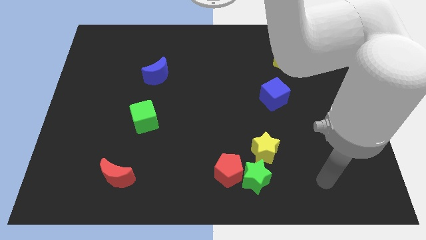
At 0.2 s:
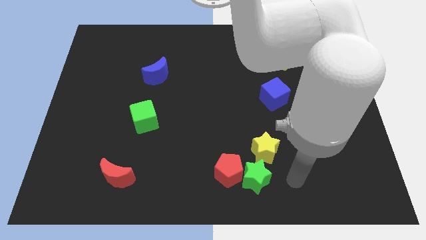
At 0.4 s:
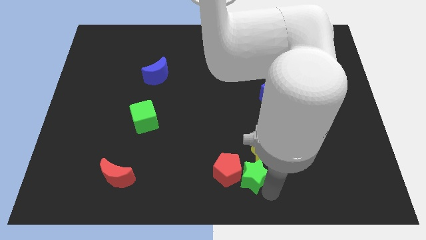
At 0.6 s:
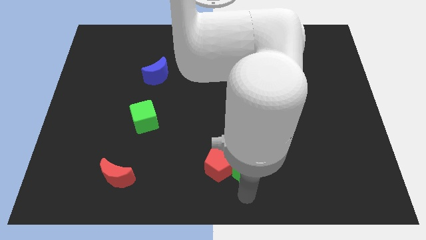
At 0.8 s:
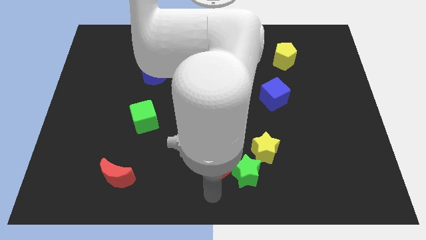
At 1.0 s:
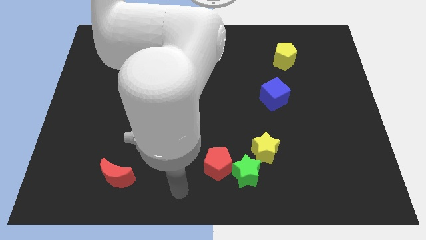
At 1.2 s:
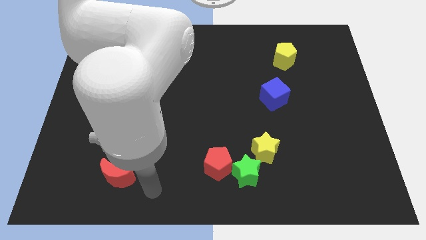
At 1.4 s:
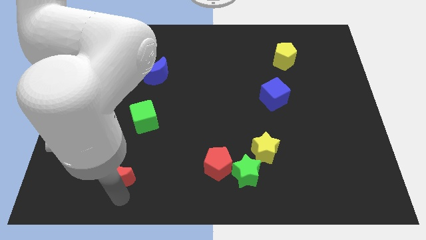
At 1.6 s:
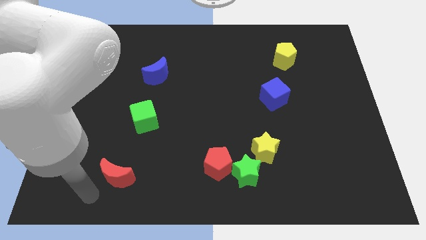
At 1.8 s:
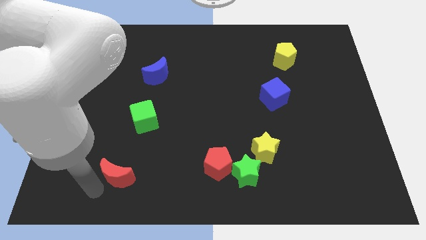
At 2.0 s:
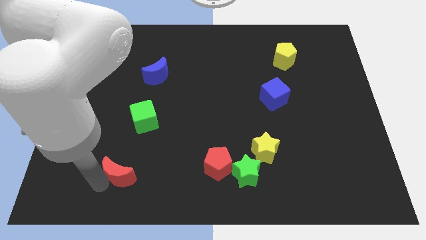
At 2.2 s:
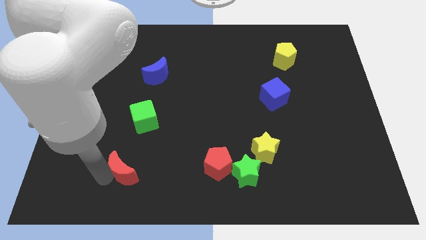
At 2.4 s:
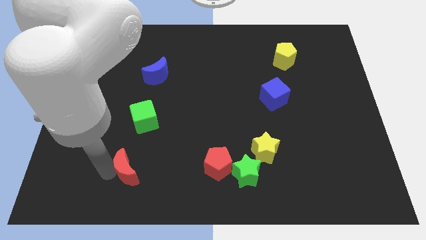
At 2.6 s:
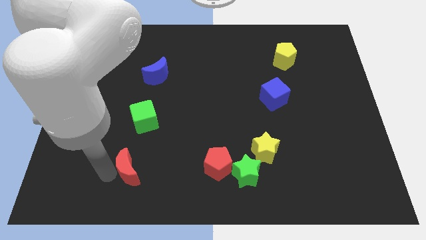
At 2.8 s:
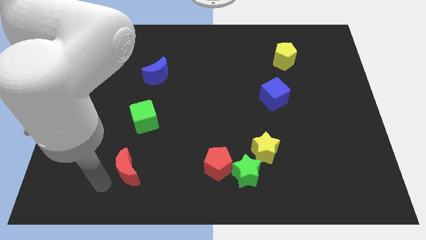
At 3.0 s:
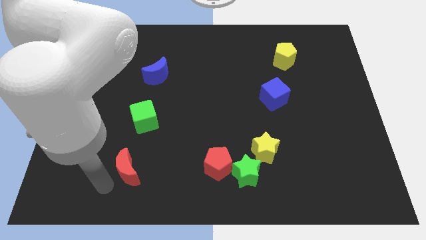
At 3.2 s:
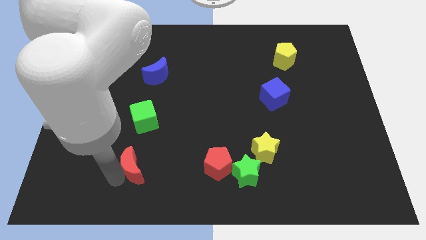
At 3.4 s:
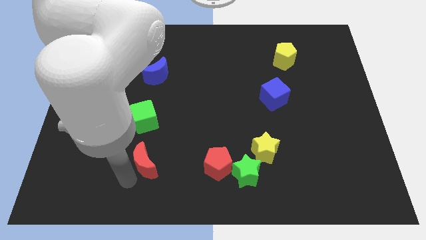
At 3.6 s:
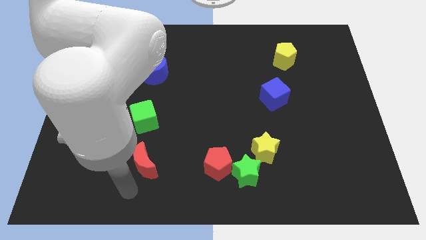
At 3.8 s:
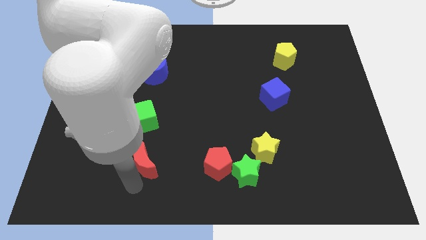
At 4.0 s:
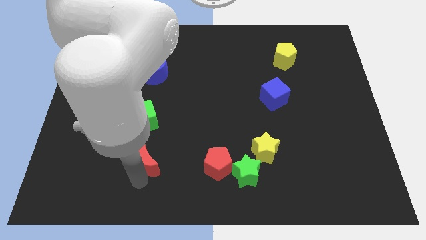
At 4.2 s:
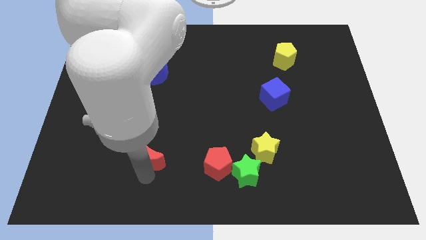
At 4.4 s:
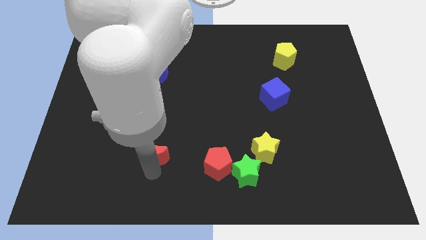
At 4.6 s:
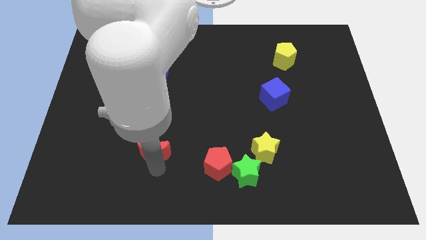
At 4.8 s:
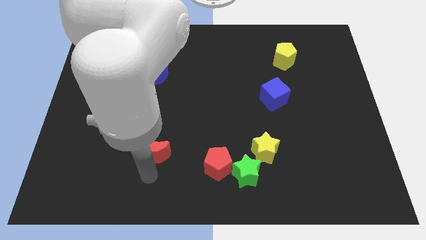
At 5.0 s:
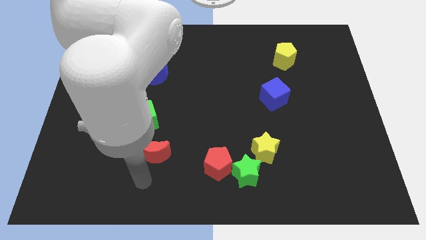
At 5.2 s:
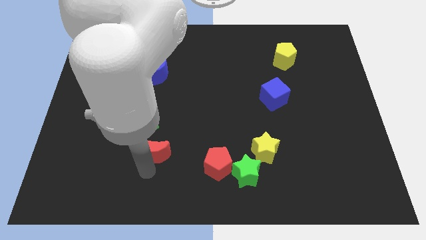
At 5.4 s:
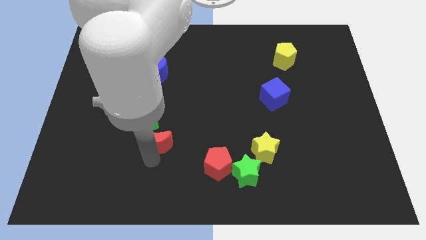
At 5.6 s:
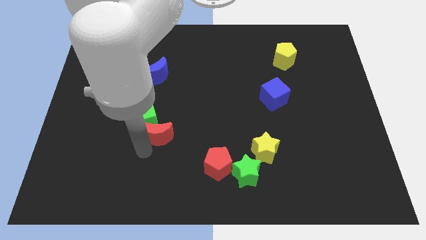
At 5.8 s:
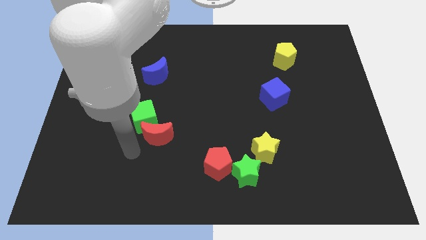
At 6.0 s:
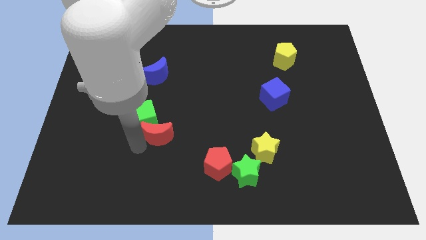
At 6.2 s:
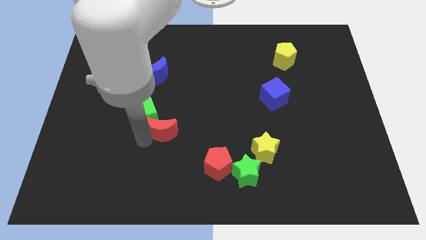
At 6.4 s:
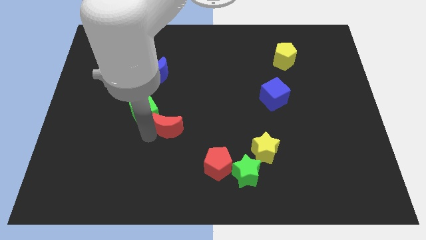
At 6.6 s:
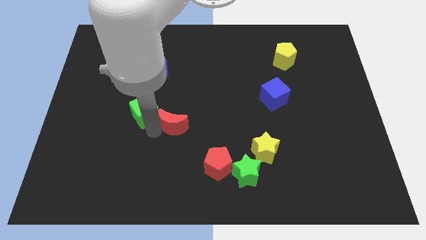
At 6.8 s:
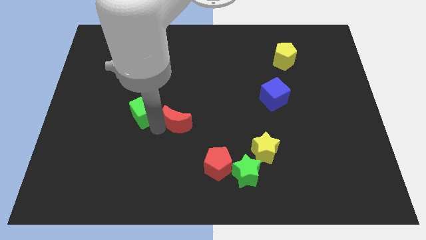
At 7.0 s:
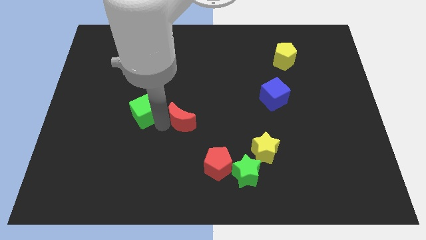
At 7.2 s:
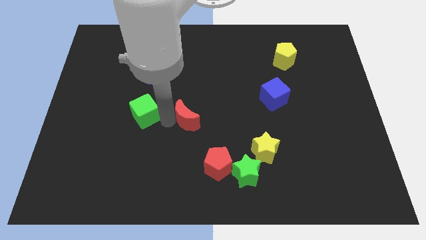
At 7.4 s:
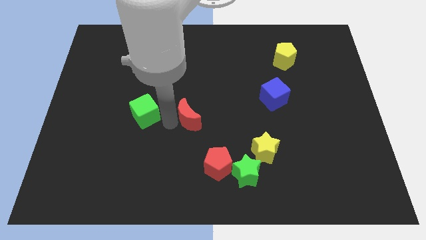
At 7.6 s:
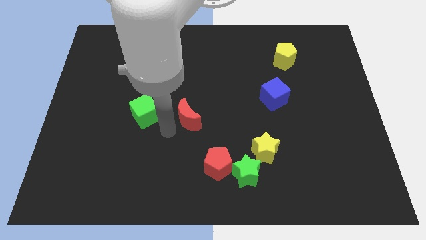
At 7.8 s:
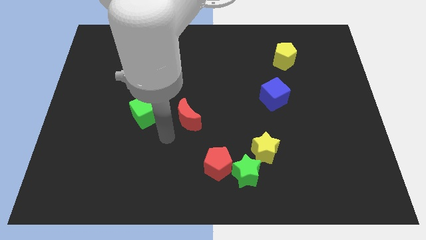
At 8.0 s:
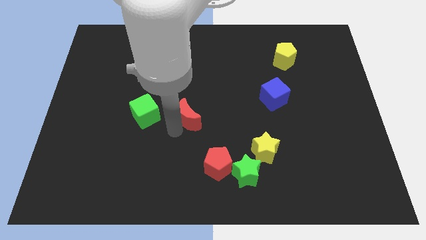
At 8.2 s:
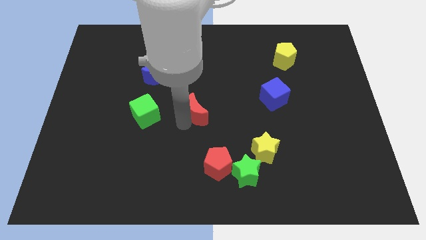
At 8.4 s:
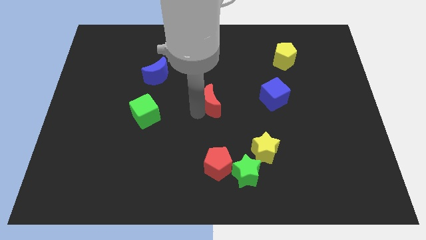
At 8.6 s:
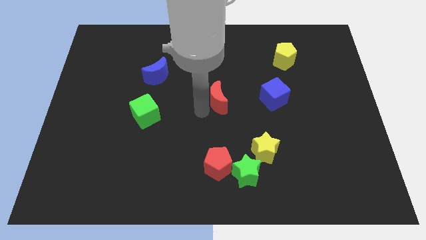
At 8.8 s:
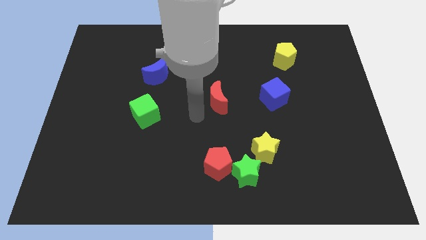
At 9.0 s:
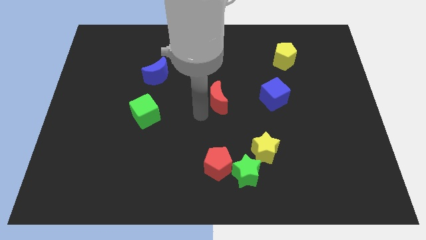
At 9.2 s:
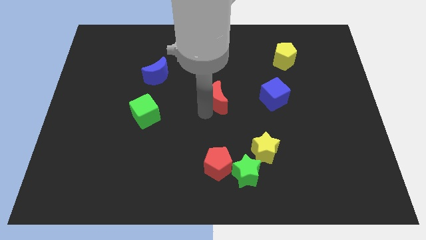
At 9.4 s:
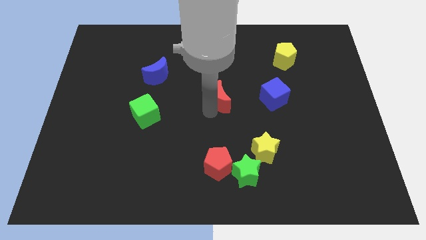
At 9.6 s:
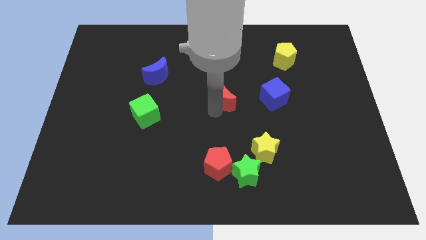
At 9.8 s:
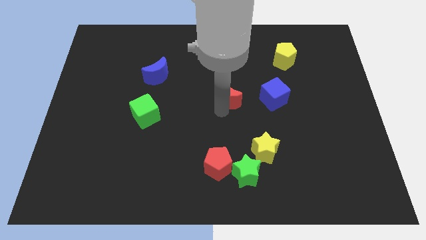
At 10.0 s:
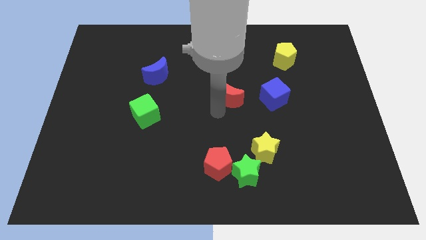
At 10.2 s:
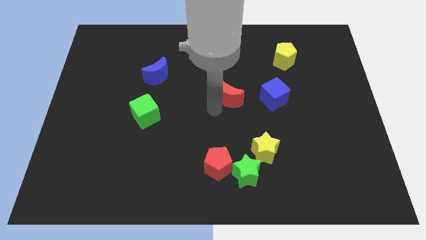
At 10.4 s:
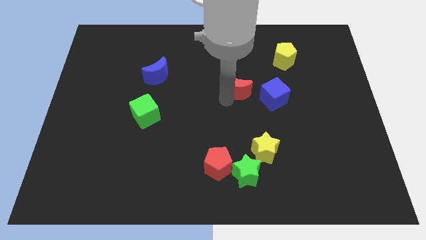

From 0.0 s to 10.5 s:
move the red moon diagonally up and to the left of the blue cube

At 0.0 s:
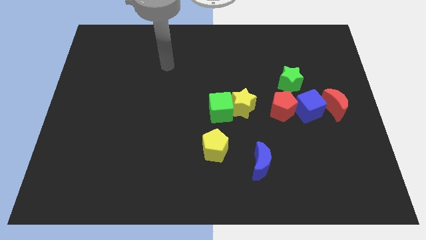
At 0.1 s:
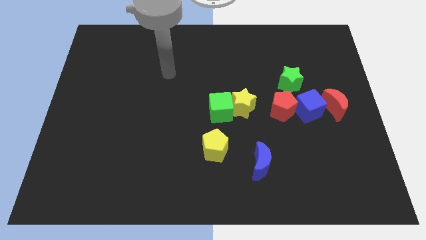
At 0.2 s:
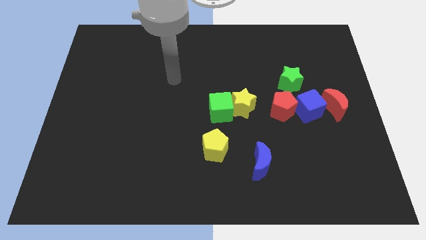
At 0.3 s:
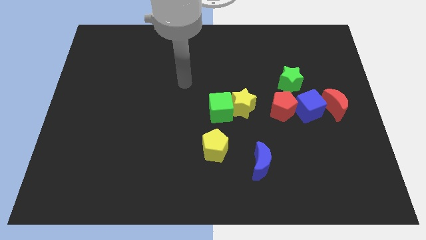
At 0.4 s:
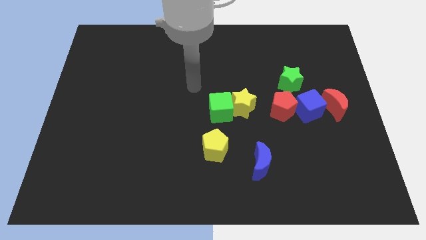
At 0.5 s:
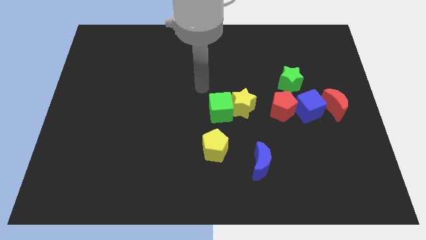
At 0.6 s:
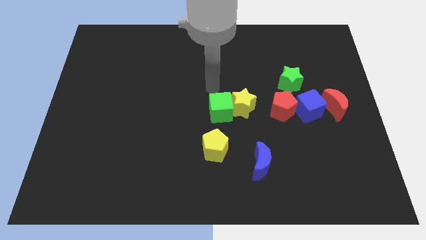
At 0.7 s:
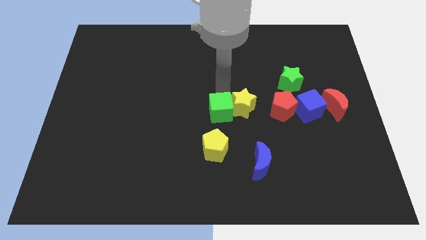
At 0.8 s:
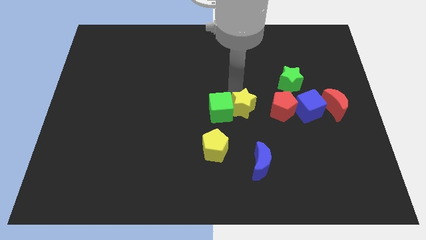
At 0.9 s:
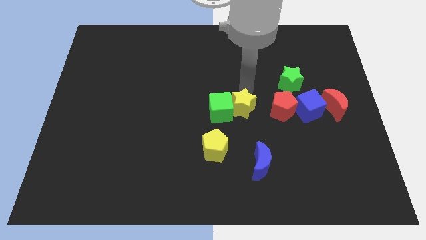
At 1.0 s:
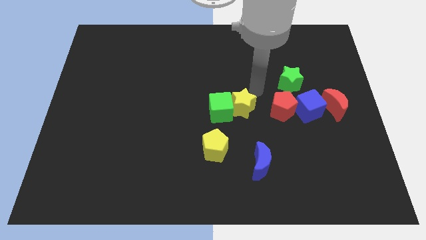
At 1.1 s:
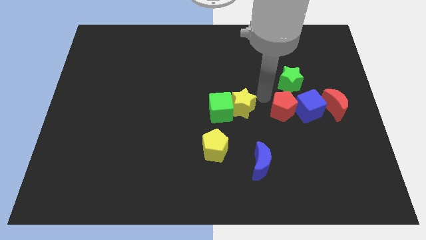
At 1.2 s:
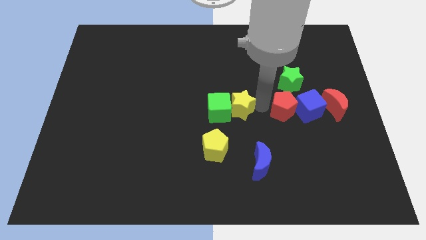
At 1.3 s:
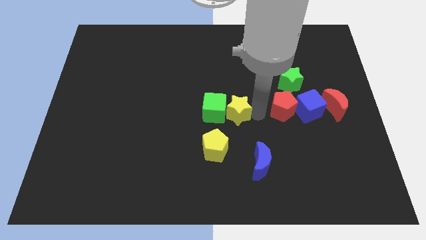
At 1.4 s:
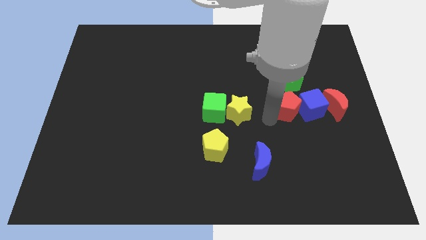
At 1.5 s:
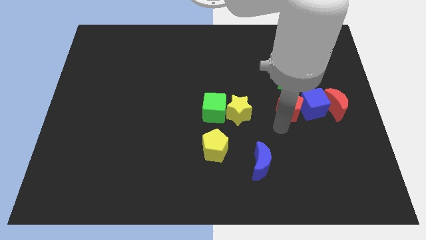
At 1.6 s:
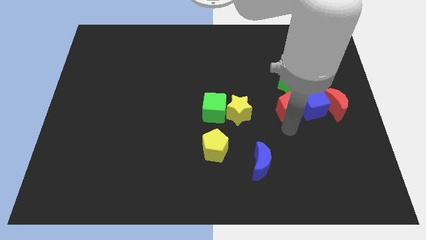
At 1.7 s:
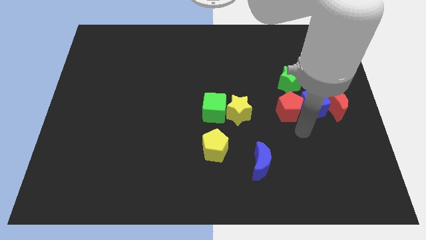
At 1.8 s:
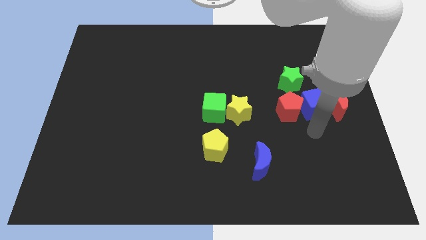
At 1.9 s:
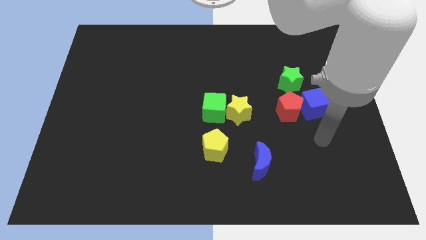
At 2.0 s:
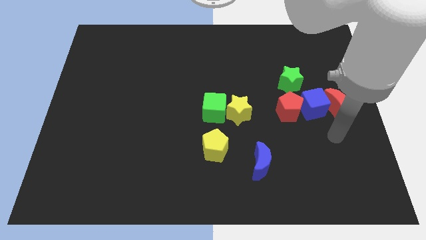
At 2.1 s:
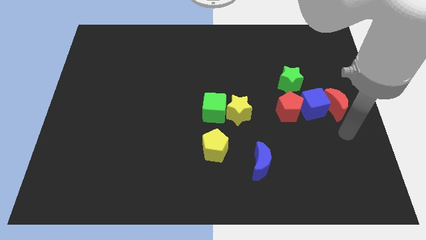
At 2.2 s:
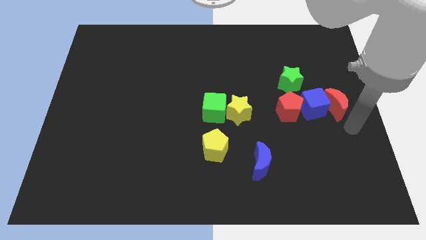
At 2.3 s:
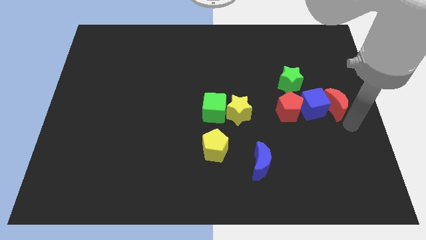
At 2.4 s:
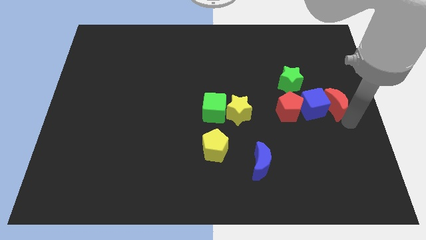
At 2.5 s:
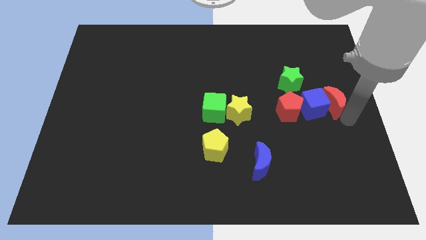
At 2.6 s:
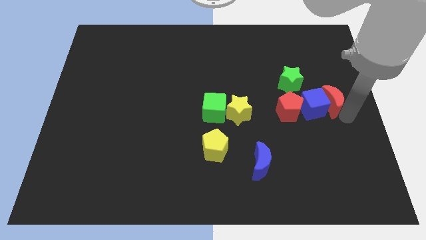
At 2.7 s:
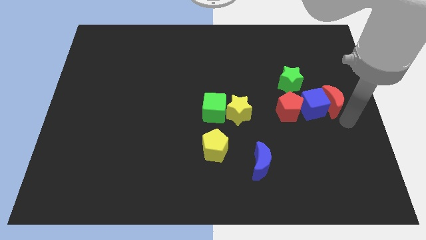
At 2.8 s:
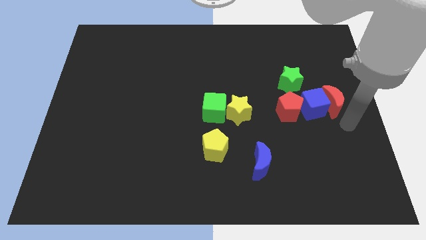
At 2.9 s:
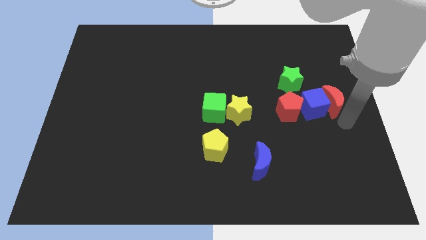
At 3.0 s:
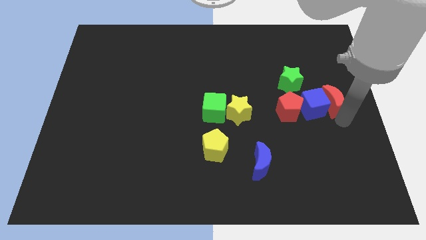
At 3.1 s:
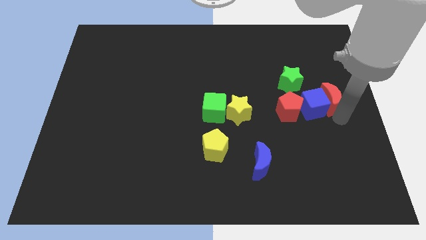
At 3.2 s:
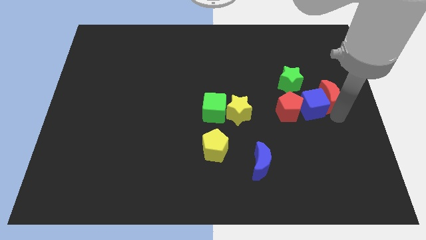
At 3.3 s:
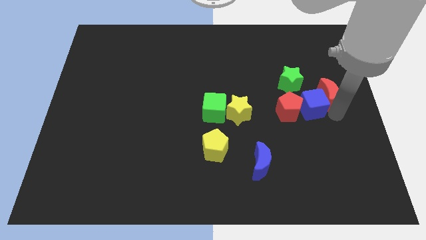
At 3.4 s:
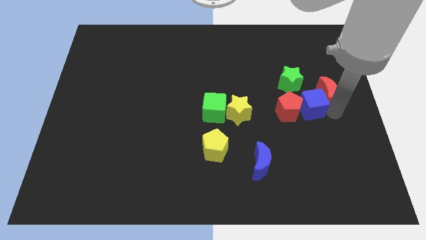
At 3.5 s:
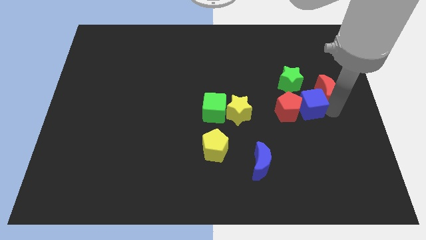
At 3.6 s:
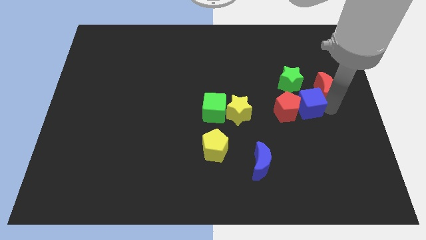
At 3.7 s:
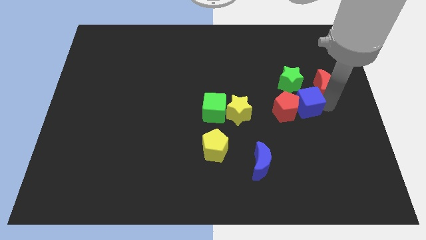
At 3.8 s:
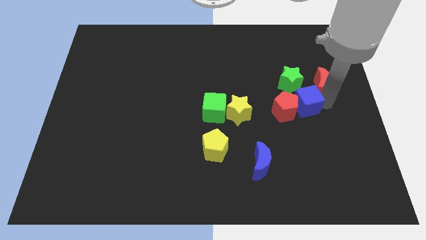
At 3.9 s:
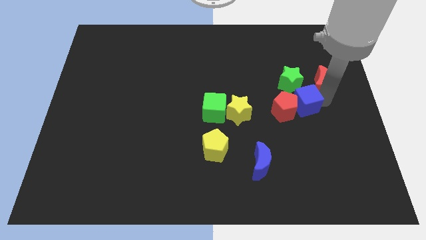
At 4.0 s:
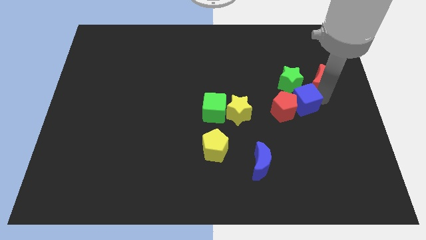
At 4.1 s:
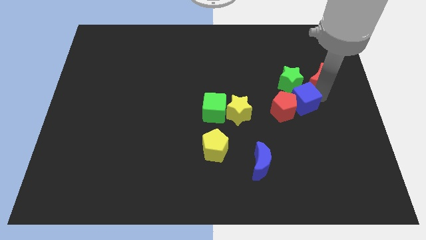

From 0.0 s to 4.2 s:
move the red moon to the top right of the green star
